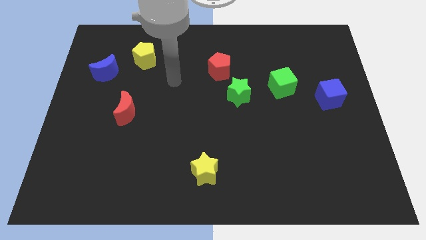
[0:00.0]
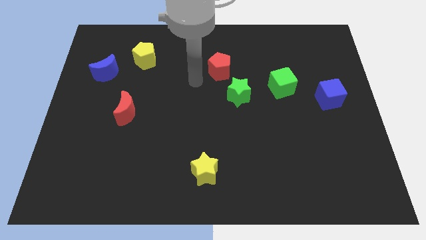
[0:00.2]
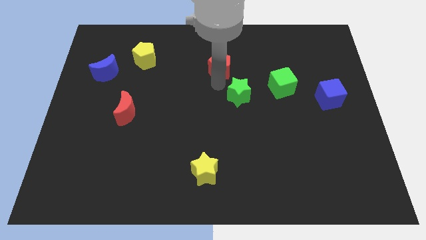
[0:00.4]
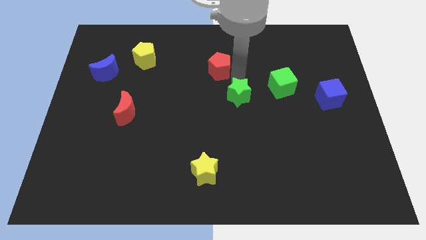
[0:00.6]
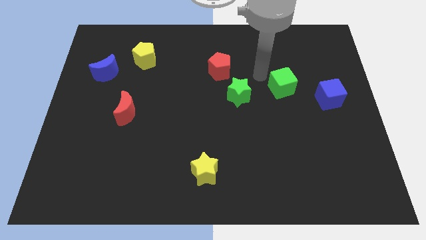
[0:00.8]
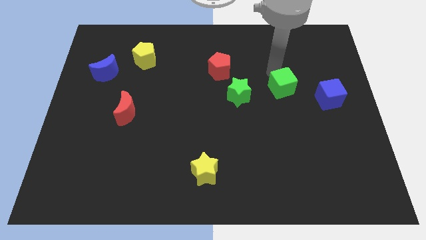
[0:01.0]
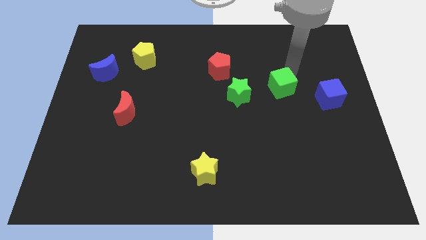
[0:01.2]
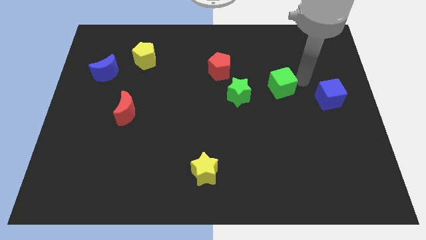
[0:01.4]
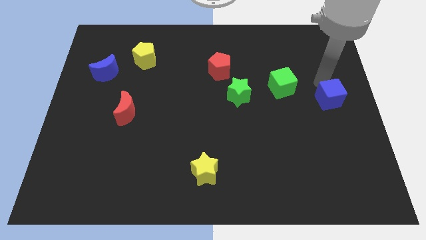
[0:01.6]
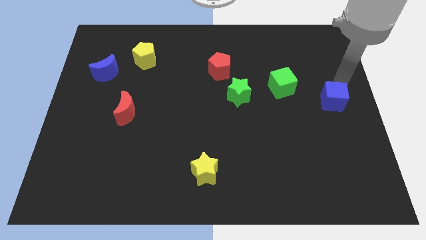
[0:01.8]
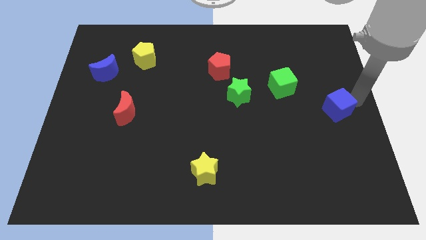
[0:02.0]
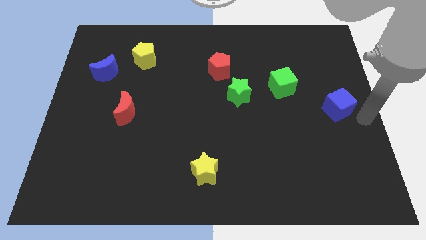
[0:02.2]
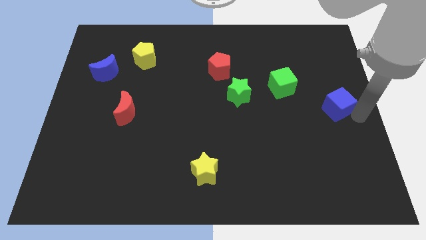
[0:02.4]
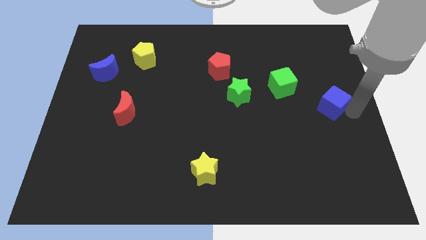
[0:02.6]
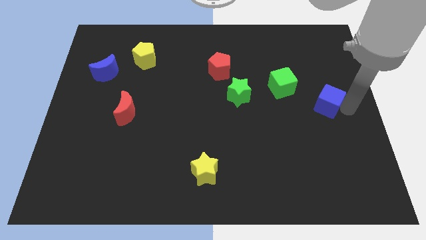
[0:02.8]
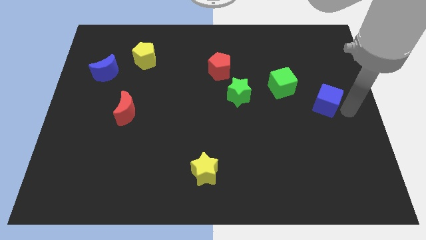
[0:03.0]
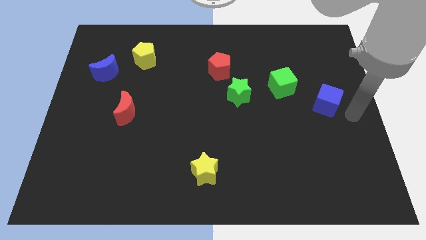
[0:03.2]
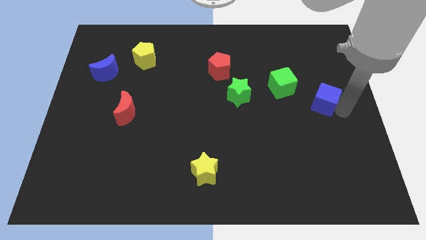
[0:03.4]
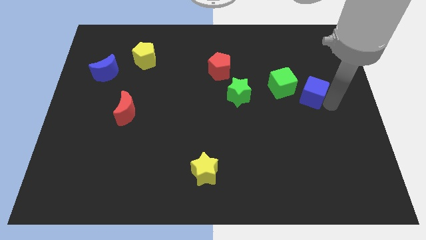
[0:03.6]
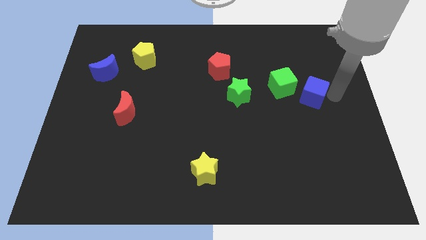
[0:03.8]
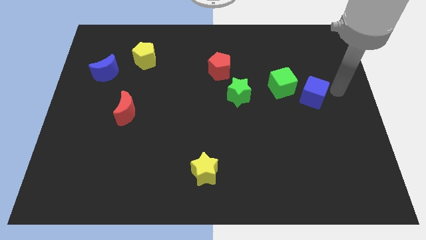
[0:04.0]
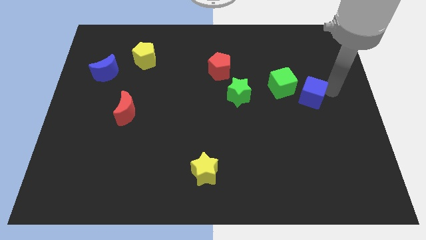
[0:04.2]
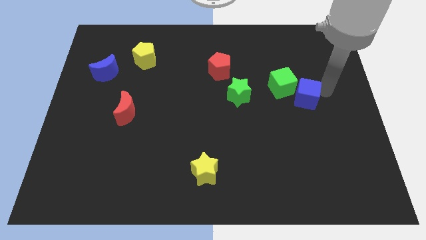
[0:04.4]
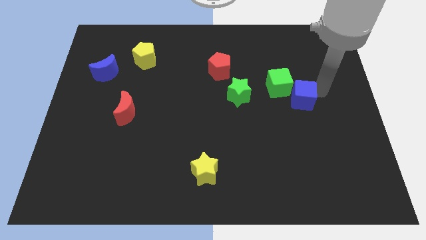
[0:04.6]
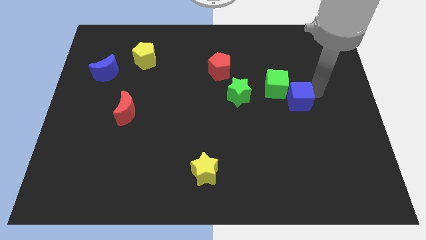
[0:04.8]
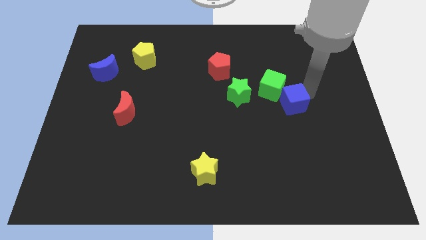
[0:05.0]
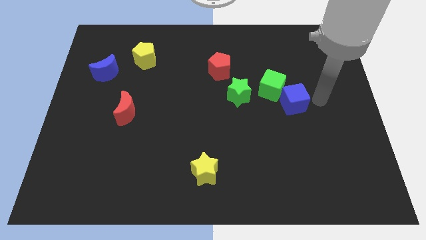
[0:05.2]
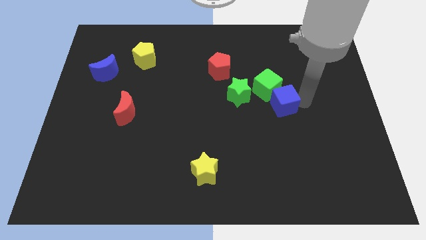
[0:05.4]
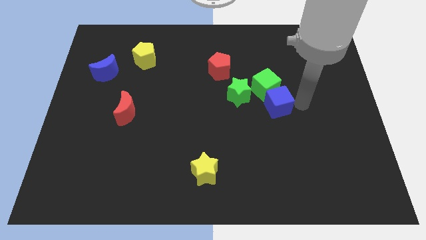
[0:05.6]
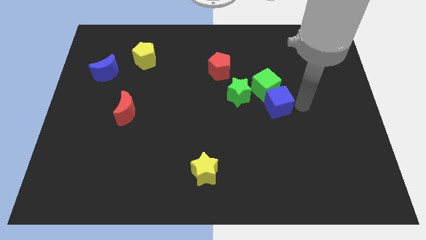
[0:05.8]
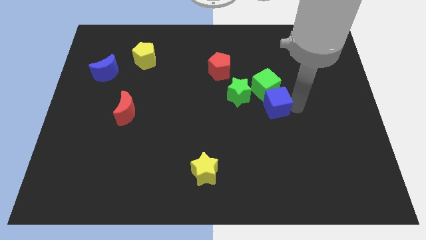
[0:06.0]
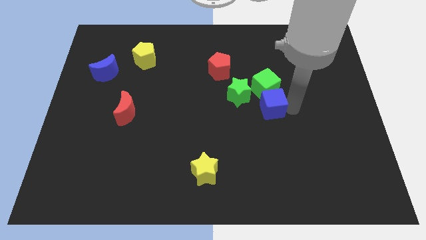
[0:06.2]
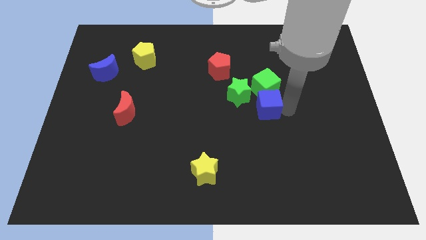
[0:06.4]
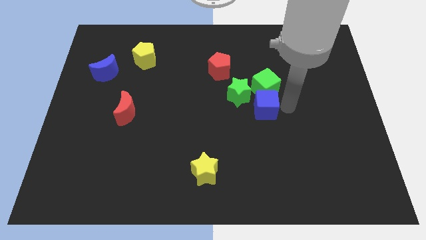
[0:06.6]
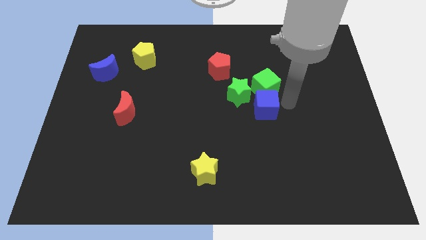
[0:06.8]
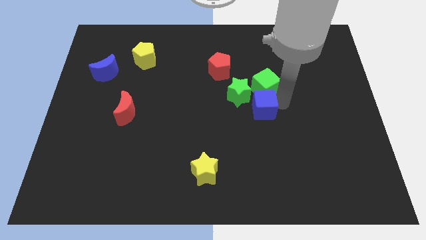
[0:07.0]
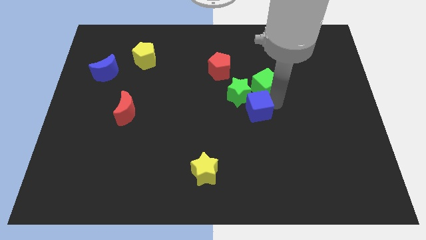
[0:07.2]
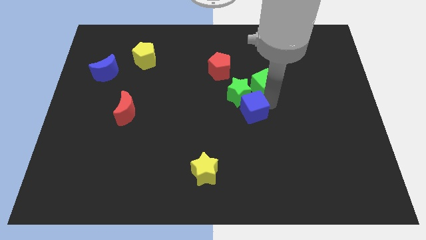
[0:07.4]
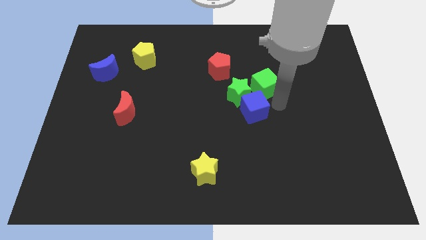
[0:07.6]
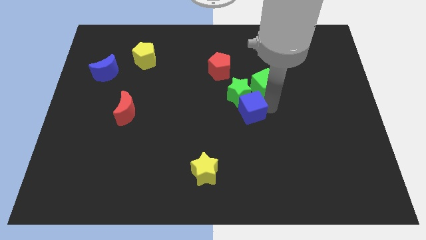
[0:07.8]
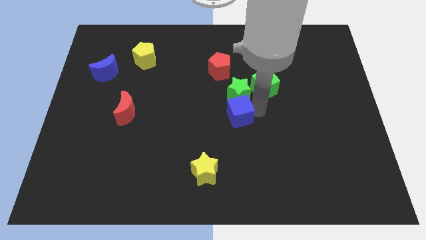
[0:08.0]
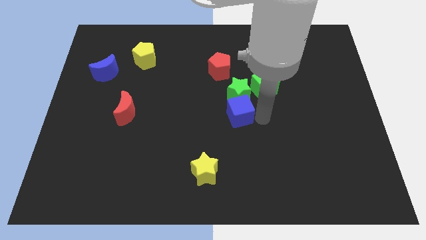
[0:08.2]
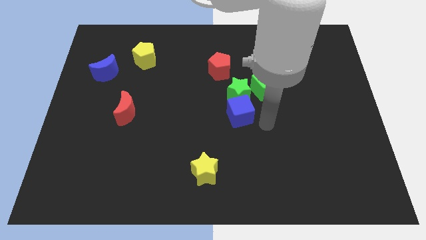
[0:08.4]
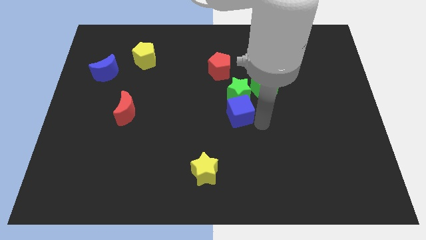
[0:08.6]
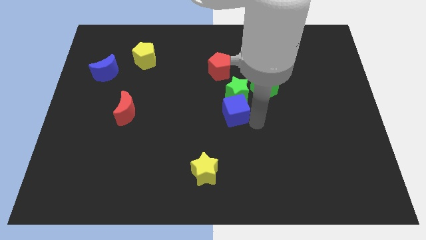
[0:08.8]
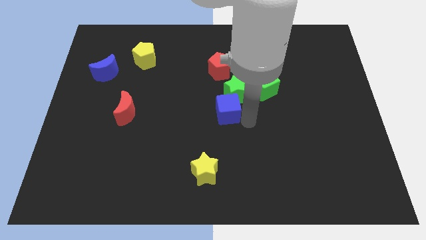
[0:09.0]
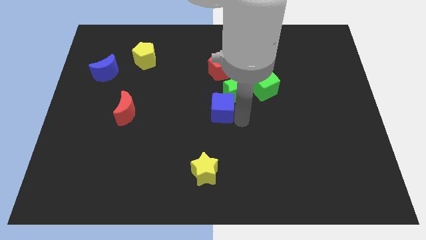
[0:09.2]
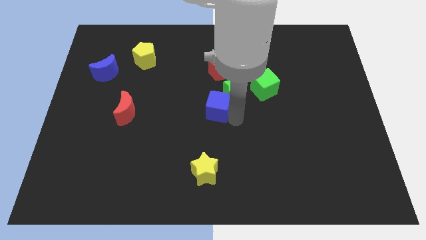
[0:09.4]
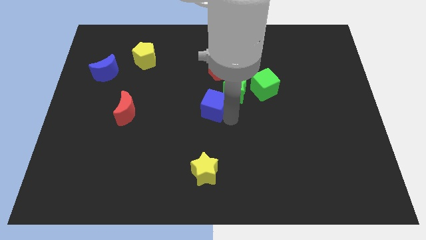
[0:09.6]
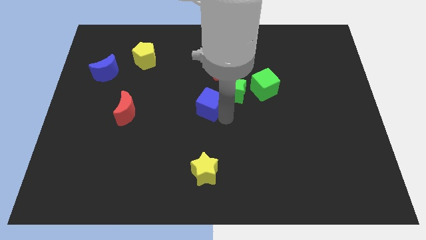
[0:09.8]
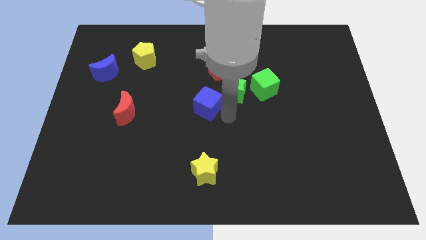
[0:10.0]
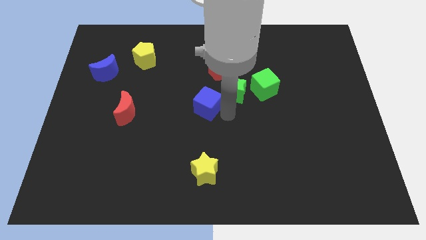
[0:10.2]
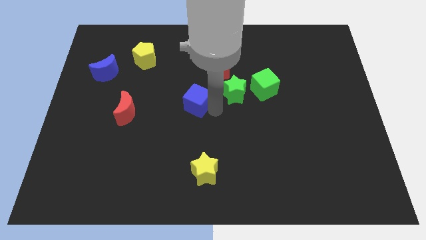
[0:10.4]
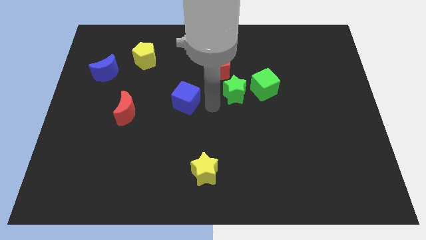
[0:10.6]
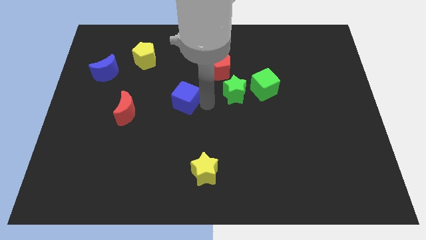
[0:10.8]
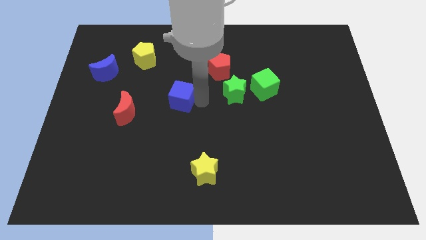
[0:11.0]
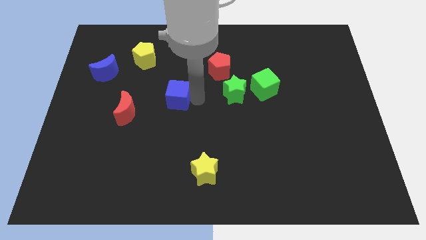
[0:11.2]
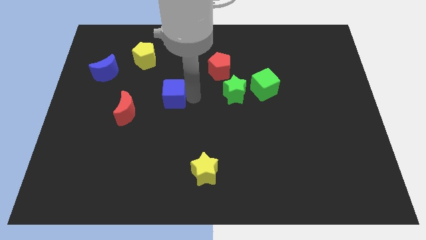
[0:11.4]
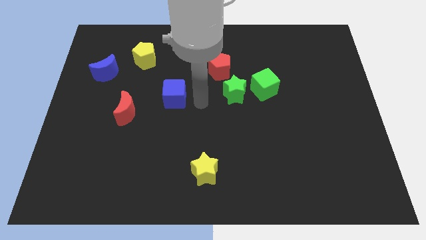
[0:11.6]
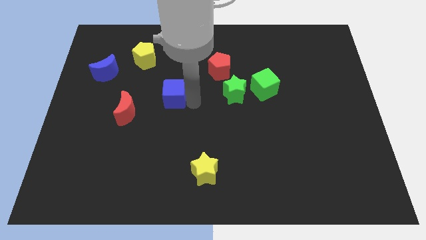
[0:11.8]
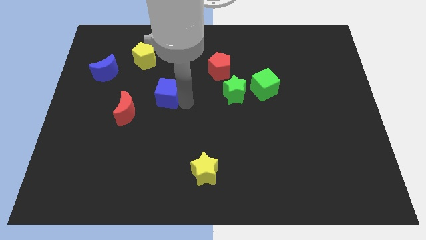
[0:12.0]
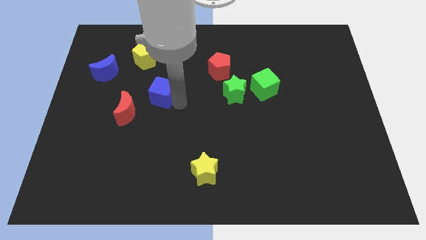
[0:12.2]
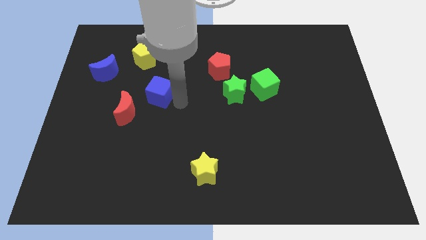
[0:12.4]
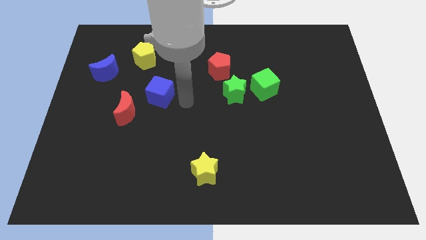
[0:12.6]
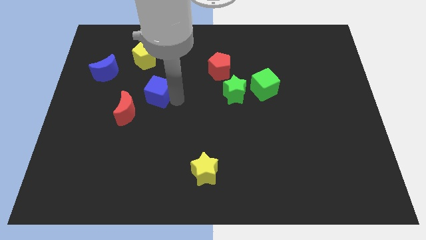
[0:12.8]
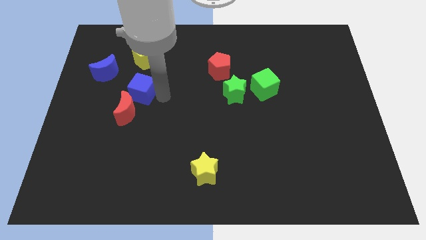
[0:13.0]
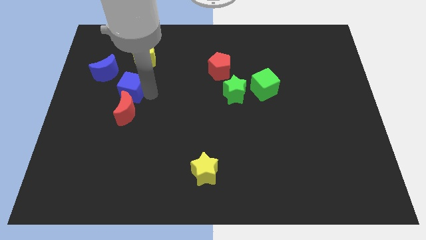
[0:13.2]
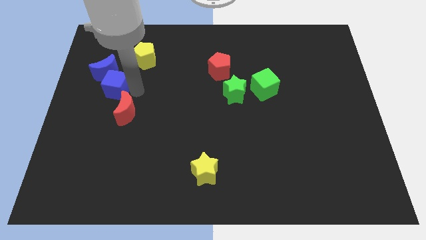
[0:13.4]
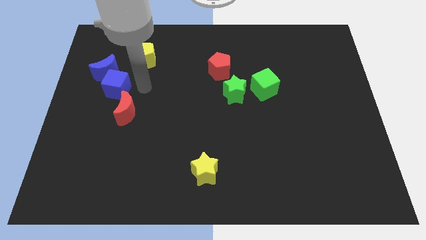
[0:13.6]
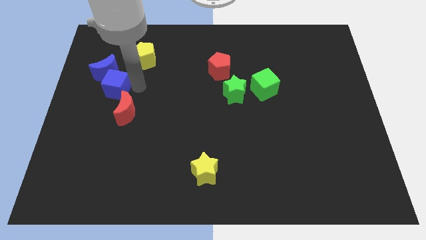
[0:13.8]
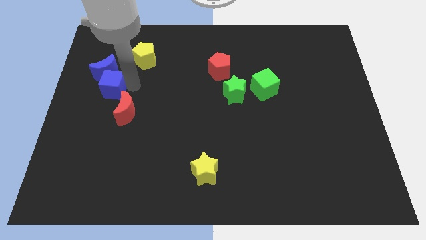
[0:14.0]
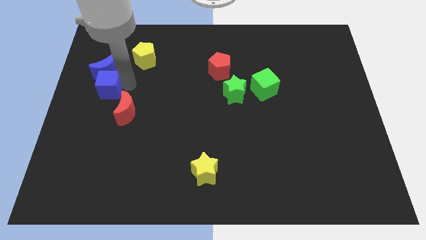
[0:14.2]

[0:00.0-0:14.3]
push the blue cube to the left side

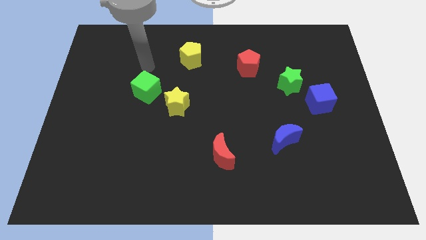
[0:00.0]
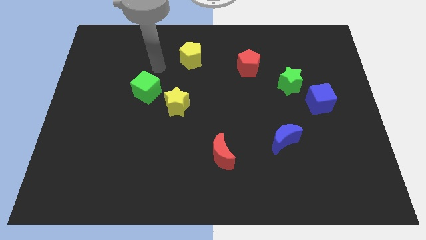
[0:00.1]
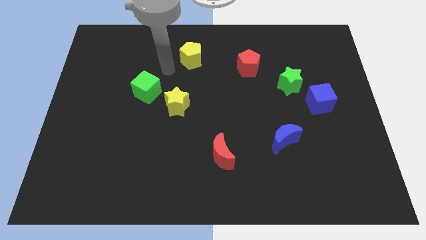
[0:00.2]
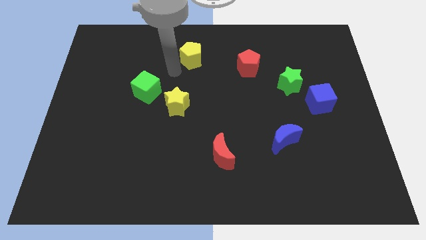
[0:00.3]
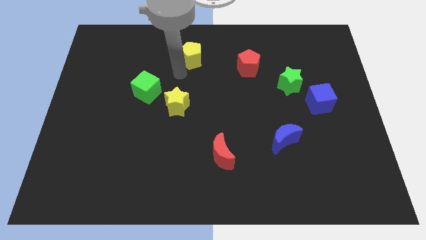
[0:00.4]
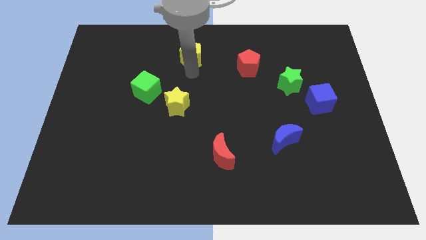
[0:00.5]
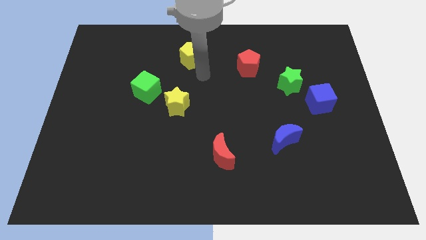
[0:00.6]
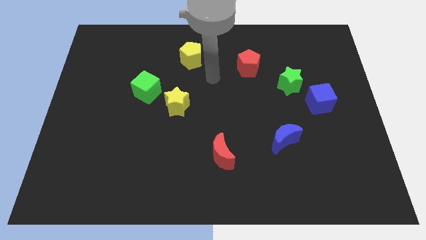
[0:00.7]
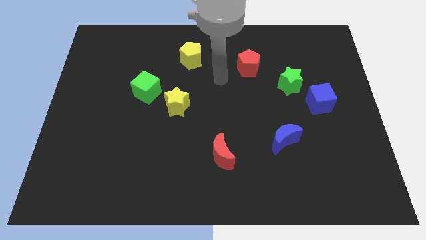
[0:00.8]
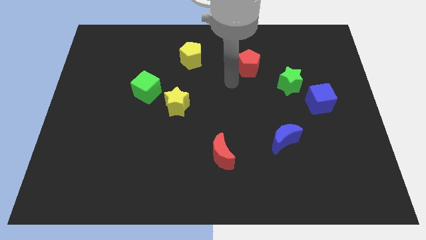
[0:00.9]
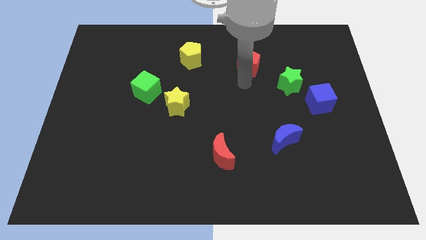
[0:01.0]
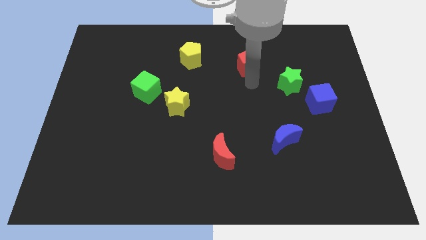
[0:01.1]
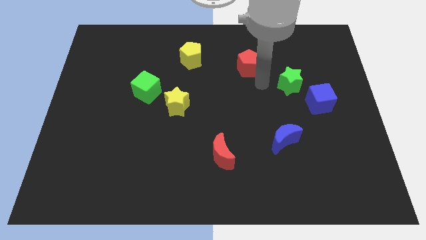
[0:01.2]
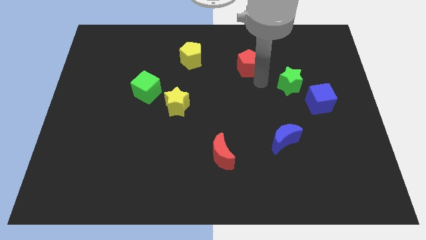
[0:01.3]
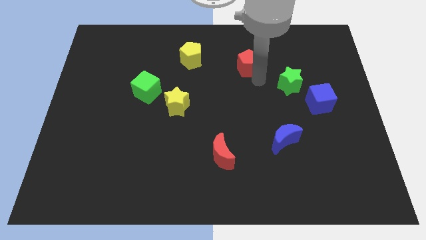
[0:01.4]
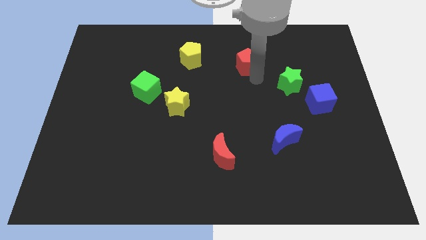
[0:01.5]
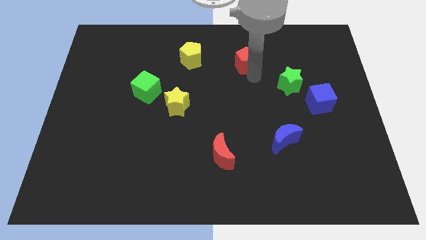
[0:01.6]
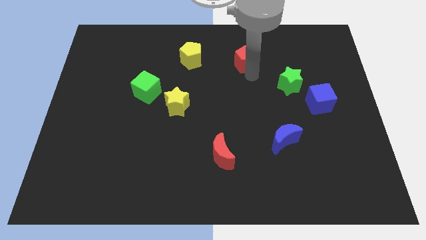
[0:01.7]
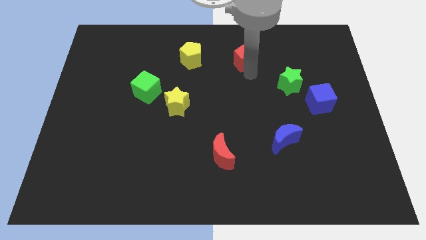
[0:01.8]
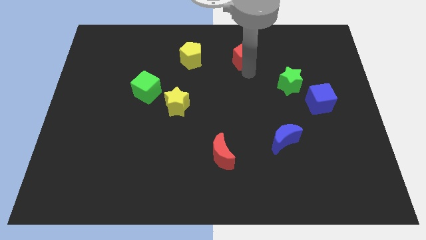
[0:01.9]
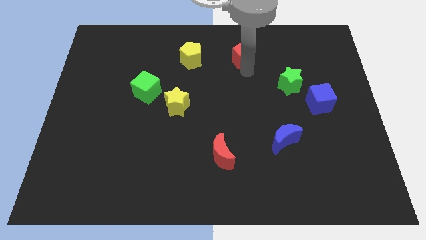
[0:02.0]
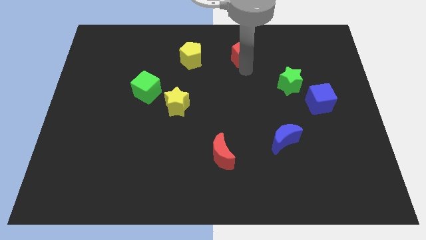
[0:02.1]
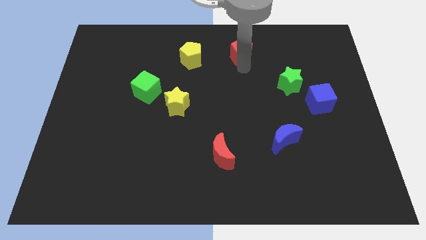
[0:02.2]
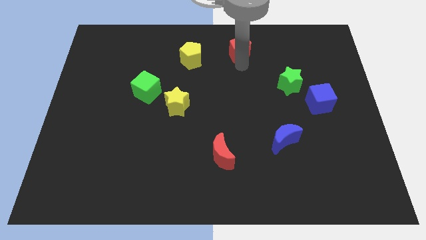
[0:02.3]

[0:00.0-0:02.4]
put the red pentagon to the top side
